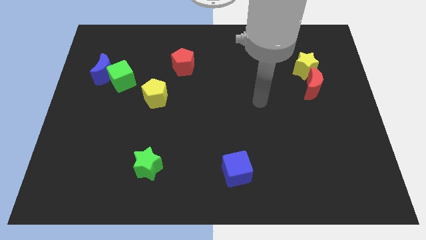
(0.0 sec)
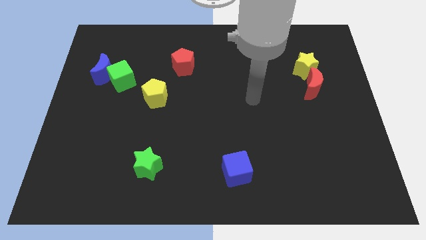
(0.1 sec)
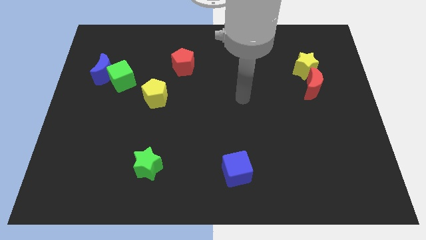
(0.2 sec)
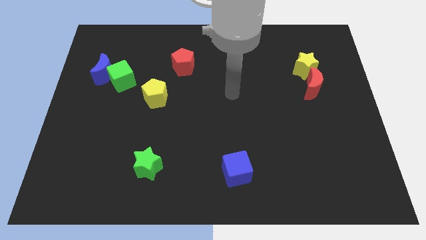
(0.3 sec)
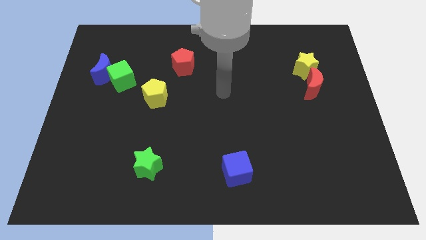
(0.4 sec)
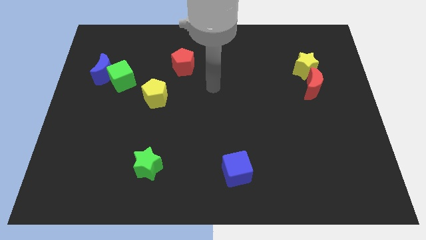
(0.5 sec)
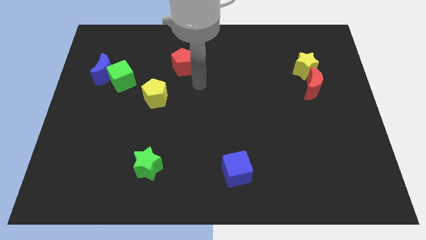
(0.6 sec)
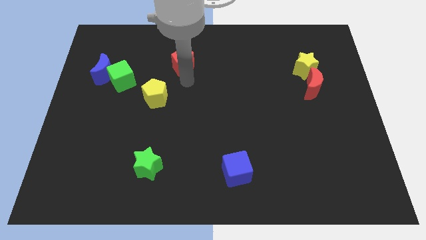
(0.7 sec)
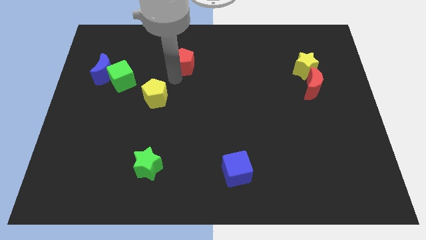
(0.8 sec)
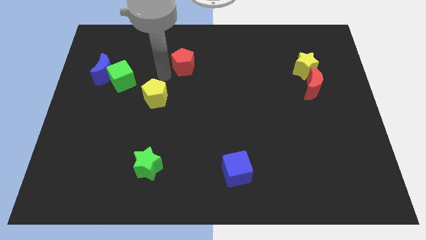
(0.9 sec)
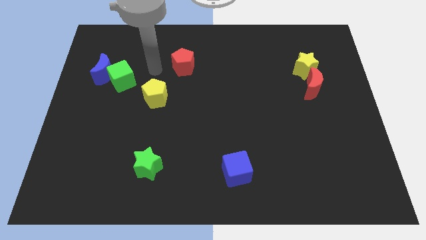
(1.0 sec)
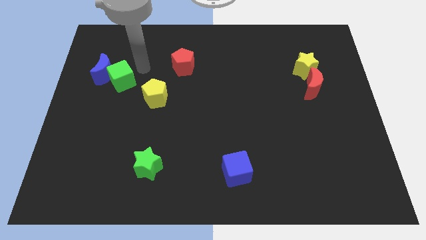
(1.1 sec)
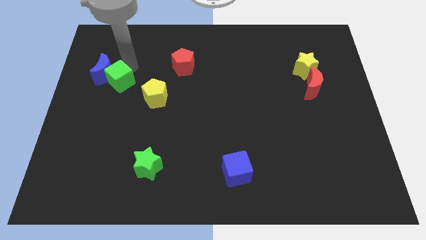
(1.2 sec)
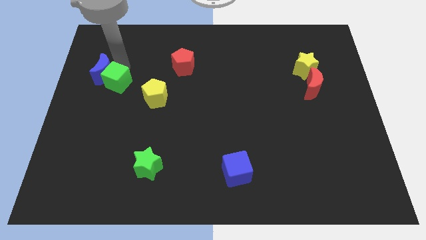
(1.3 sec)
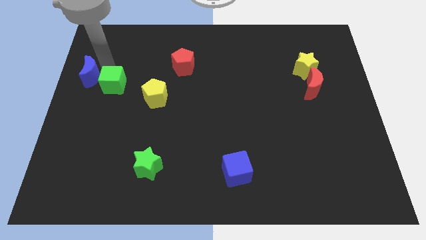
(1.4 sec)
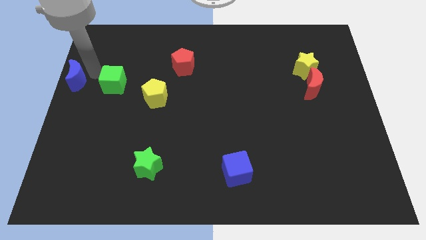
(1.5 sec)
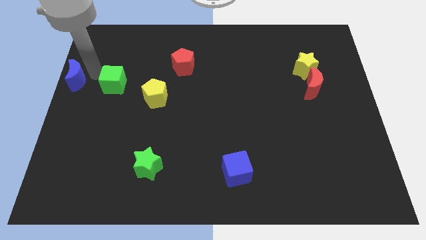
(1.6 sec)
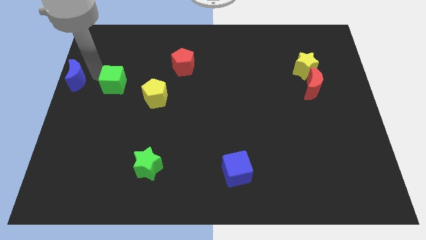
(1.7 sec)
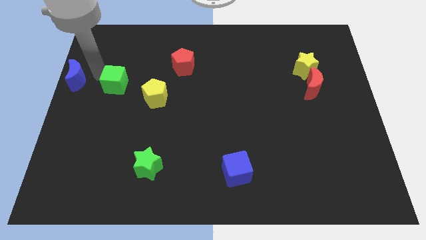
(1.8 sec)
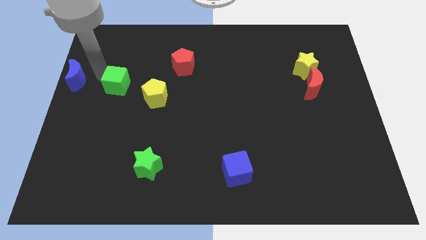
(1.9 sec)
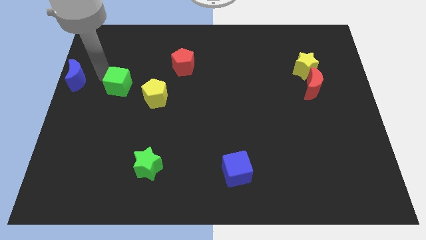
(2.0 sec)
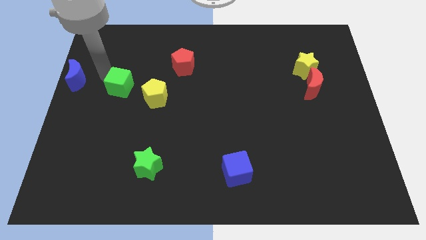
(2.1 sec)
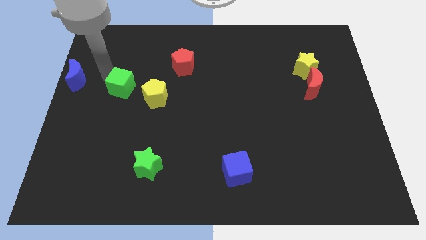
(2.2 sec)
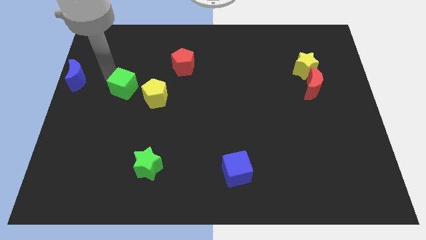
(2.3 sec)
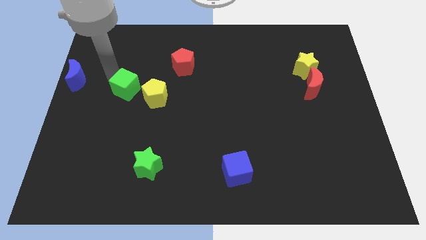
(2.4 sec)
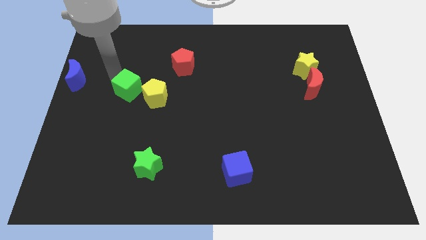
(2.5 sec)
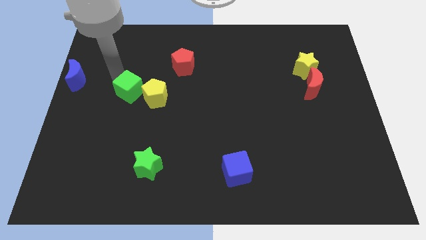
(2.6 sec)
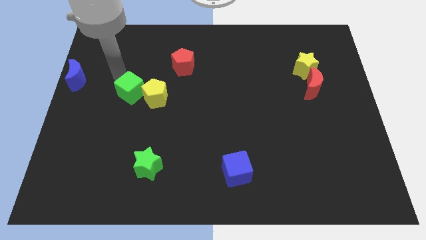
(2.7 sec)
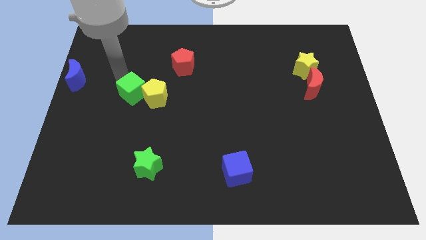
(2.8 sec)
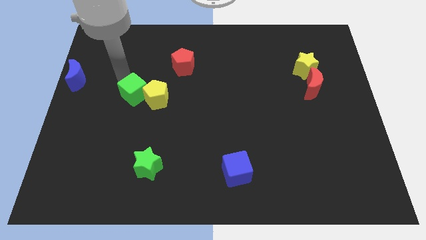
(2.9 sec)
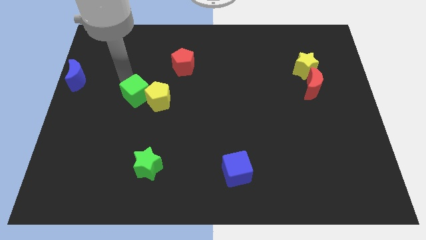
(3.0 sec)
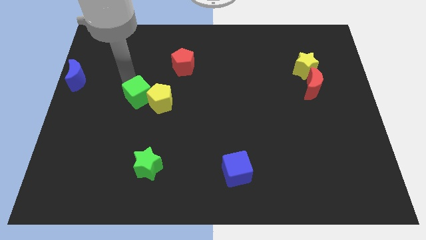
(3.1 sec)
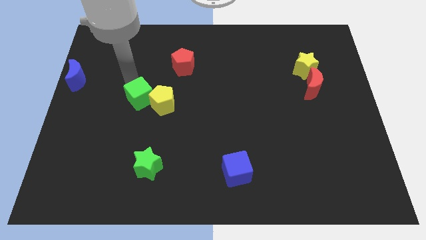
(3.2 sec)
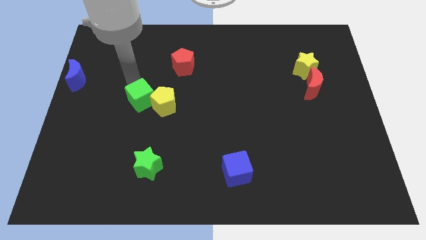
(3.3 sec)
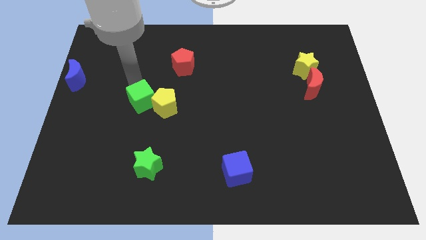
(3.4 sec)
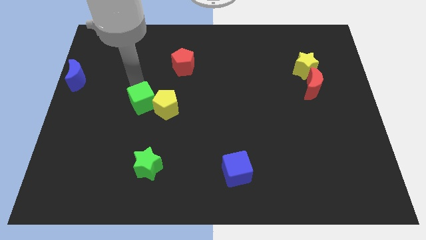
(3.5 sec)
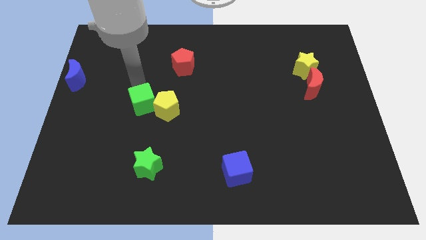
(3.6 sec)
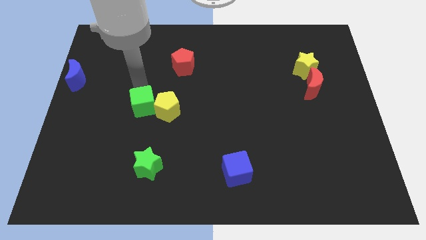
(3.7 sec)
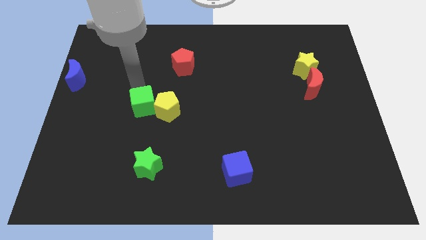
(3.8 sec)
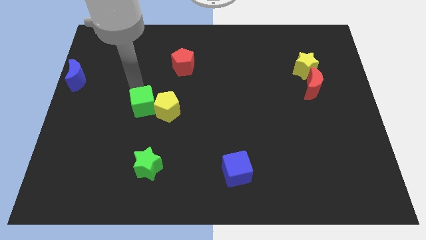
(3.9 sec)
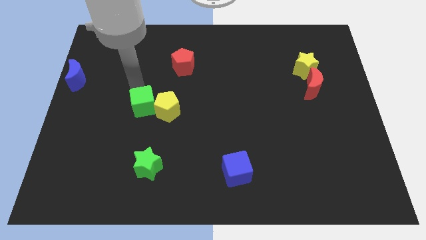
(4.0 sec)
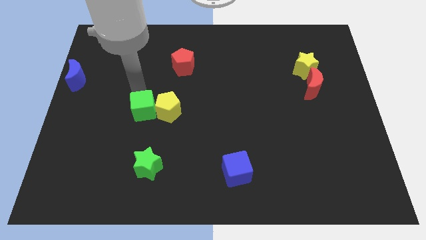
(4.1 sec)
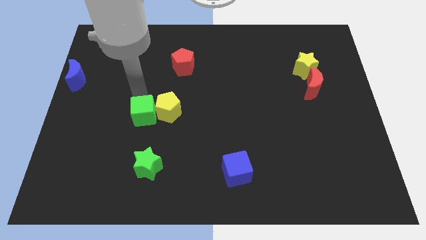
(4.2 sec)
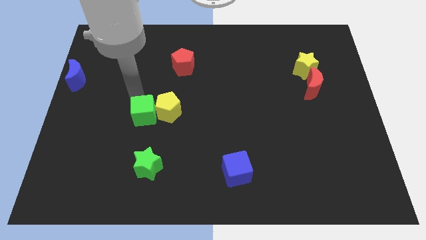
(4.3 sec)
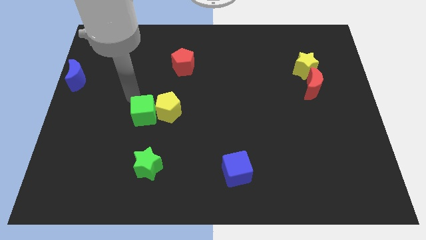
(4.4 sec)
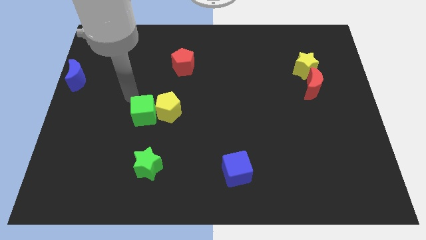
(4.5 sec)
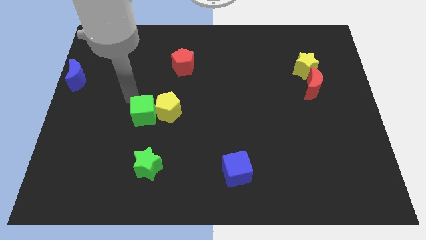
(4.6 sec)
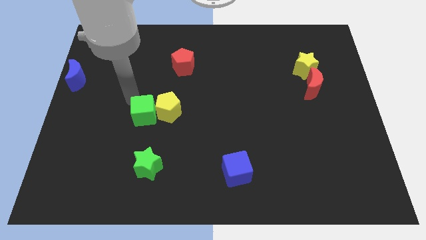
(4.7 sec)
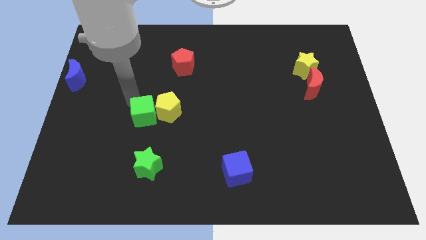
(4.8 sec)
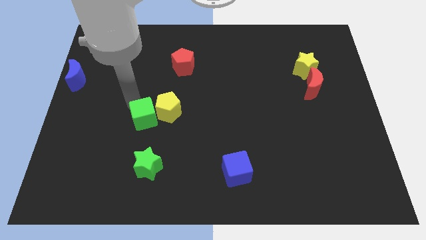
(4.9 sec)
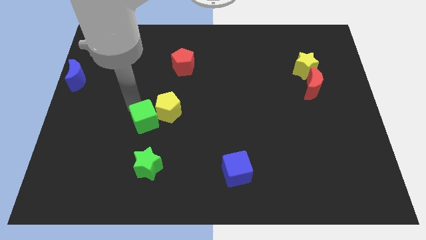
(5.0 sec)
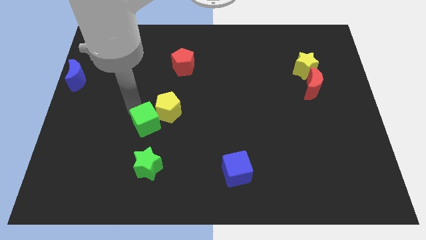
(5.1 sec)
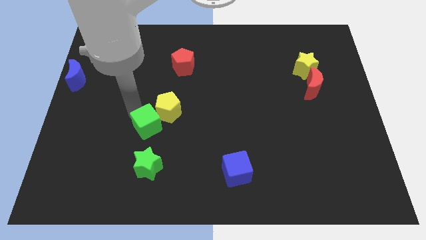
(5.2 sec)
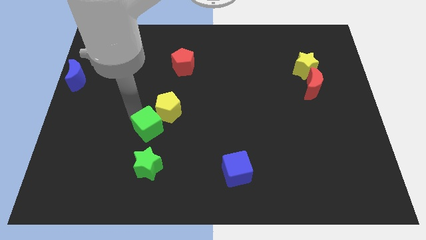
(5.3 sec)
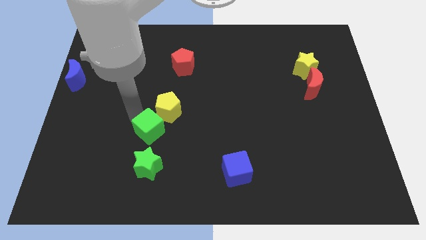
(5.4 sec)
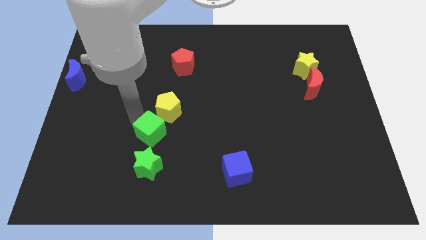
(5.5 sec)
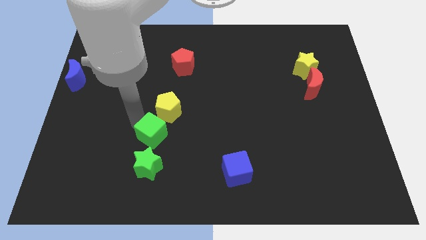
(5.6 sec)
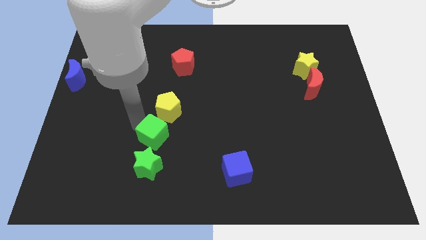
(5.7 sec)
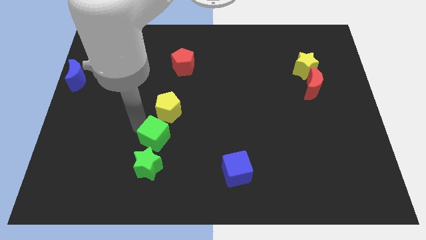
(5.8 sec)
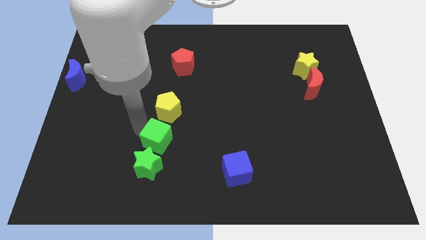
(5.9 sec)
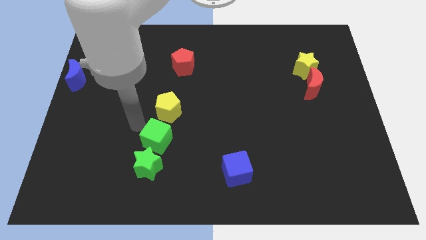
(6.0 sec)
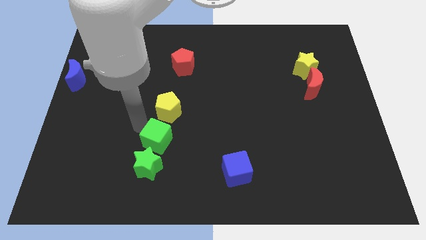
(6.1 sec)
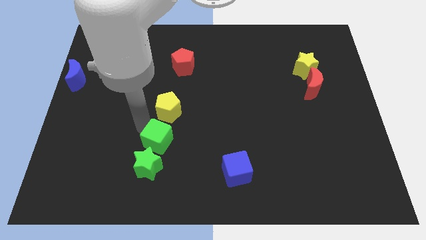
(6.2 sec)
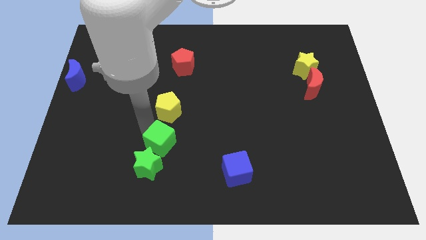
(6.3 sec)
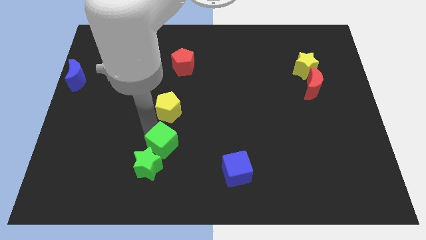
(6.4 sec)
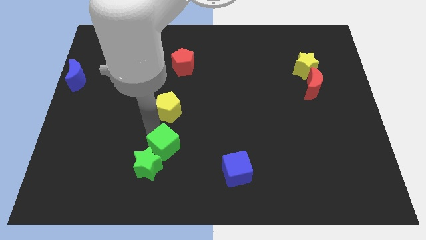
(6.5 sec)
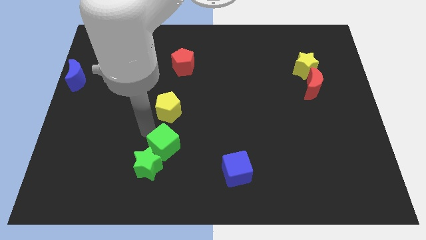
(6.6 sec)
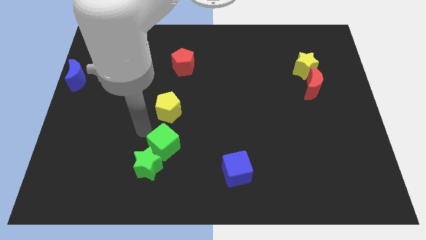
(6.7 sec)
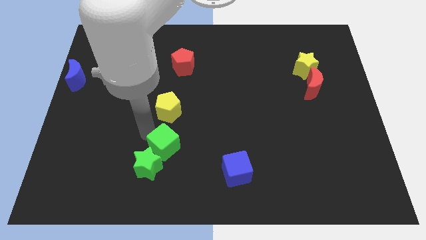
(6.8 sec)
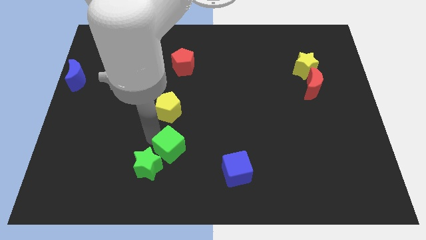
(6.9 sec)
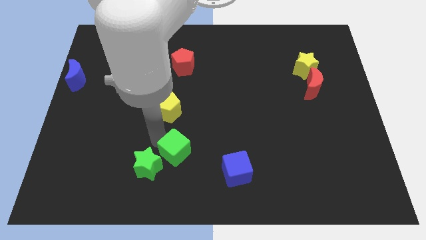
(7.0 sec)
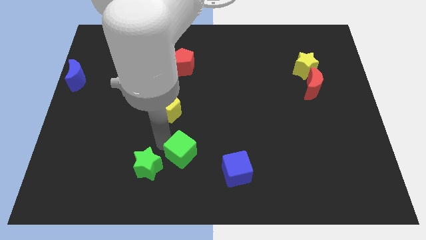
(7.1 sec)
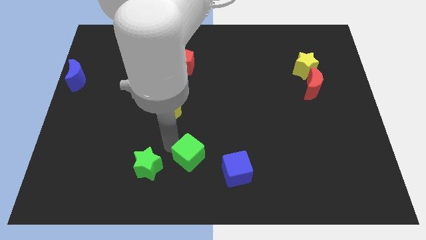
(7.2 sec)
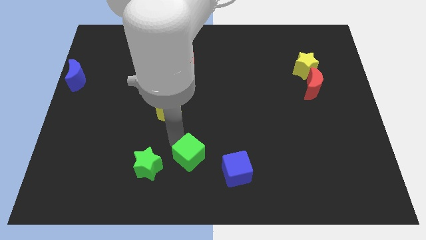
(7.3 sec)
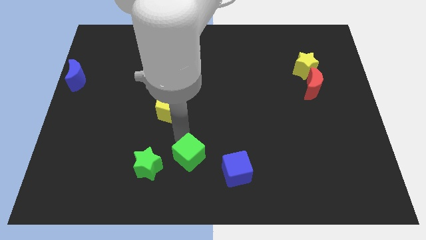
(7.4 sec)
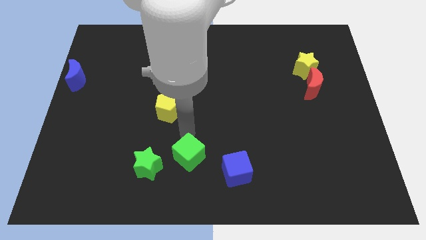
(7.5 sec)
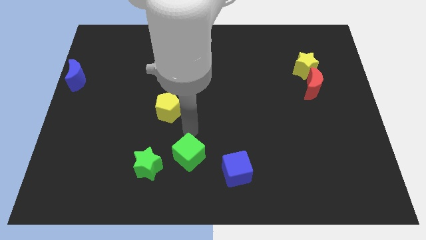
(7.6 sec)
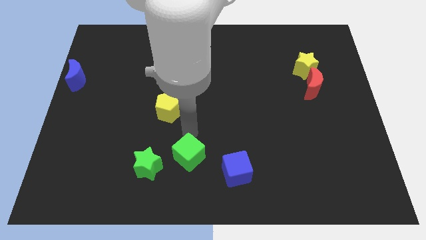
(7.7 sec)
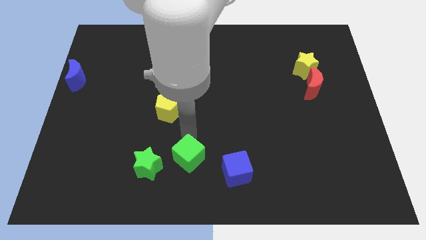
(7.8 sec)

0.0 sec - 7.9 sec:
move the green cube to the bottom

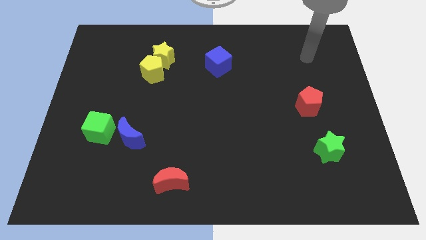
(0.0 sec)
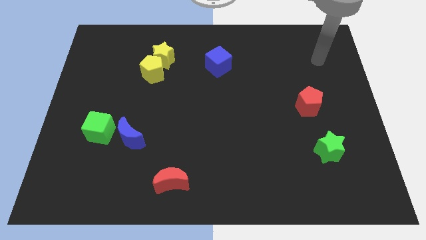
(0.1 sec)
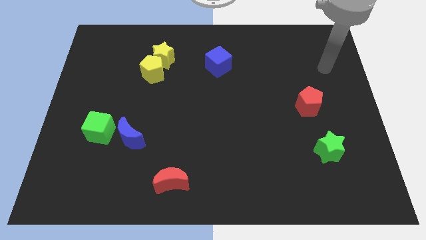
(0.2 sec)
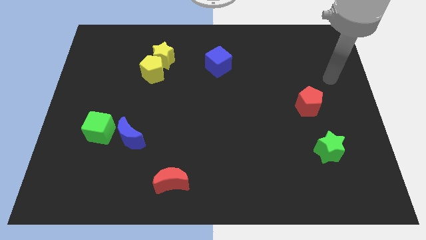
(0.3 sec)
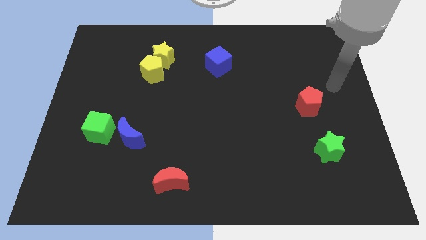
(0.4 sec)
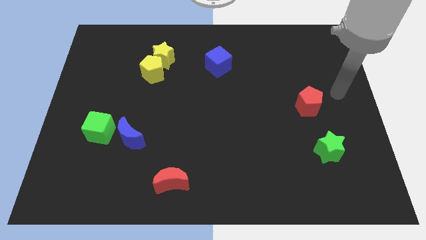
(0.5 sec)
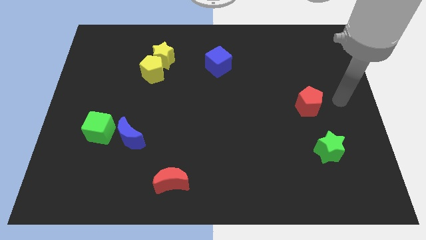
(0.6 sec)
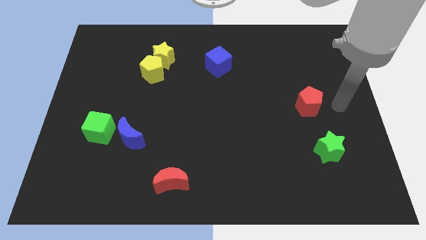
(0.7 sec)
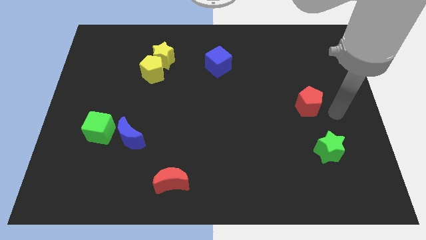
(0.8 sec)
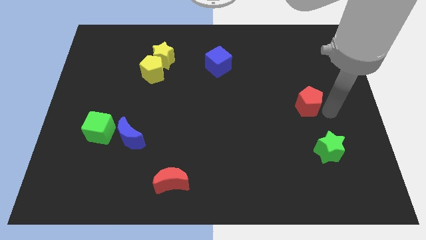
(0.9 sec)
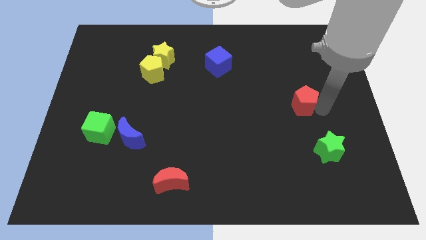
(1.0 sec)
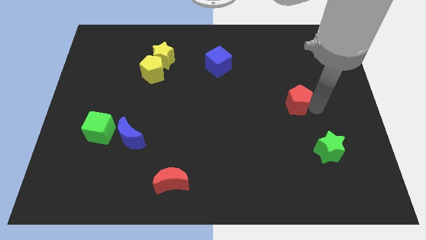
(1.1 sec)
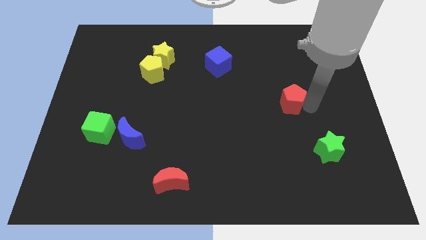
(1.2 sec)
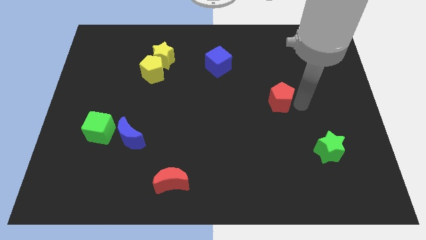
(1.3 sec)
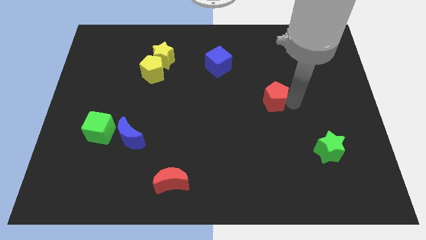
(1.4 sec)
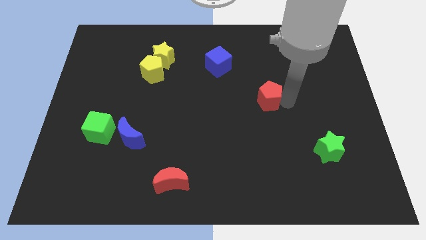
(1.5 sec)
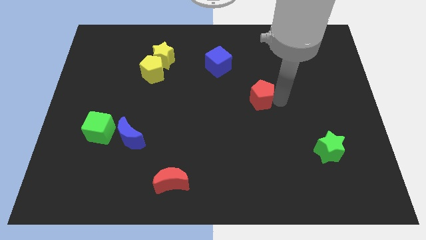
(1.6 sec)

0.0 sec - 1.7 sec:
move the red pentagon to the center
